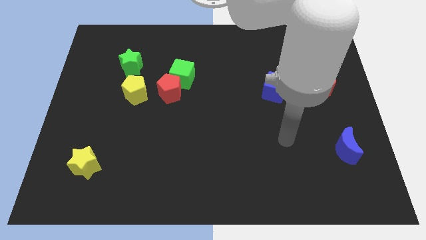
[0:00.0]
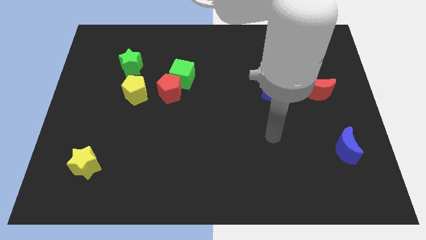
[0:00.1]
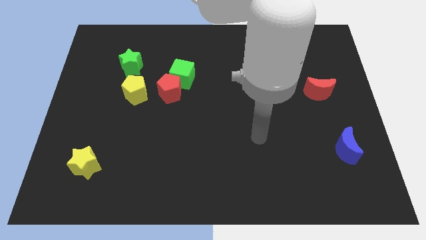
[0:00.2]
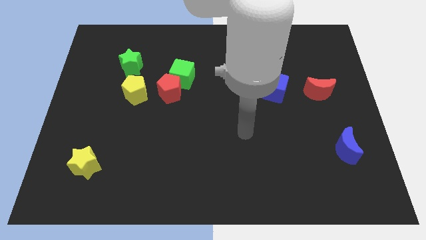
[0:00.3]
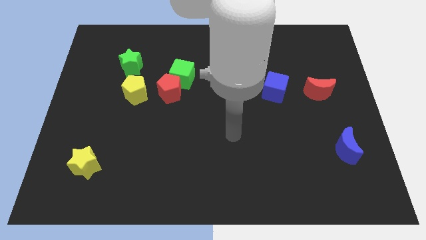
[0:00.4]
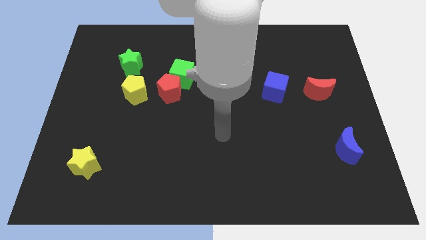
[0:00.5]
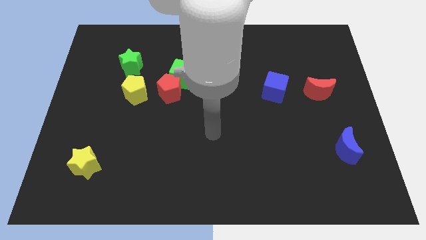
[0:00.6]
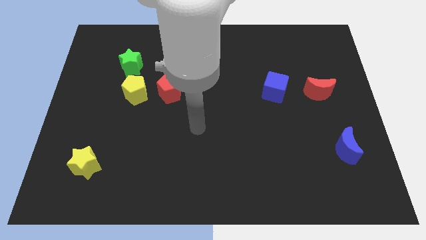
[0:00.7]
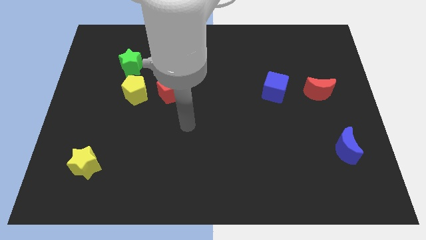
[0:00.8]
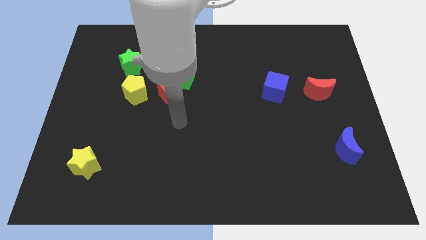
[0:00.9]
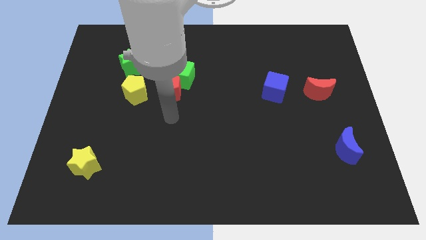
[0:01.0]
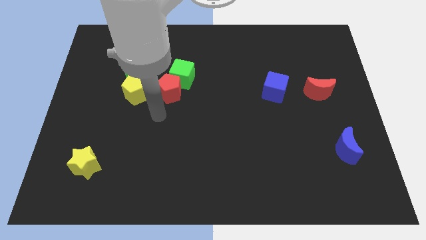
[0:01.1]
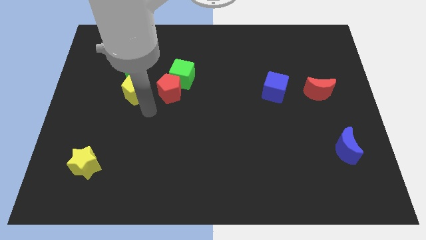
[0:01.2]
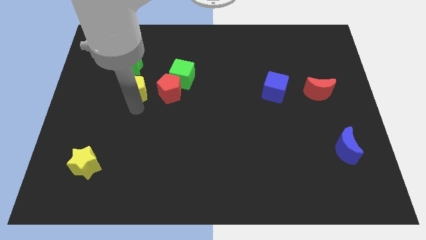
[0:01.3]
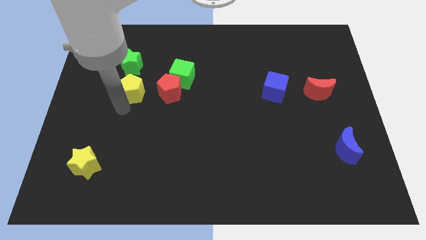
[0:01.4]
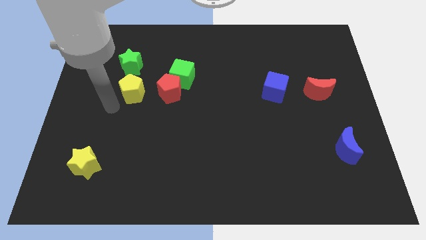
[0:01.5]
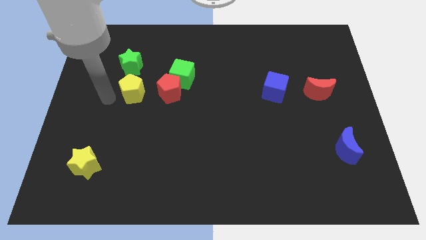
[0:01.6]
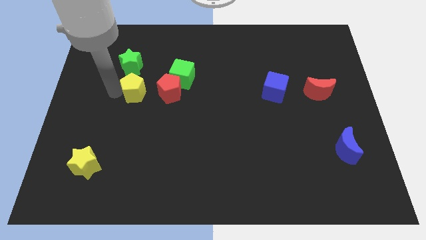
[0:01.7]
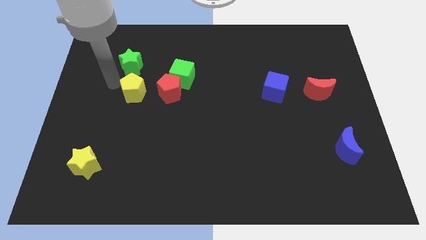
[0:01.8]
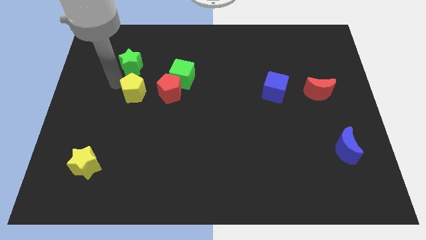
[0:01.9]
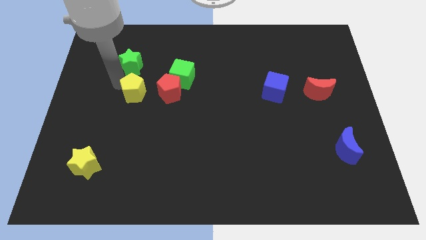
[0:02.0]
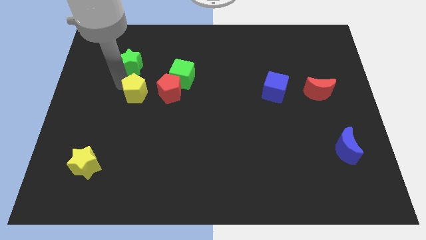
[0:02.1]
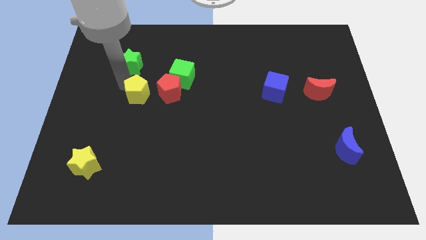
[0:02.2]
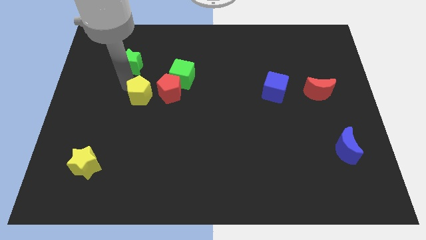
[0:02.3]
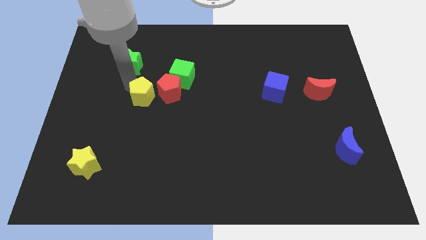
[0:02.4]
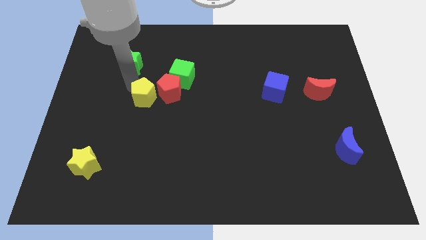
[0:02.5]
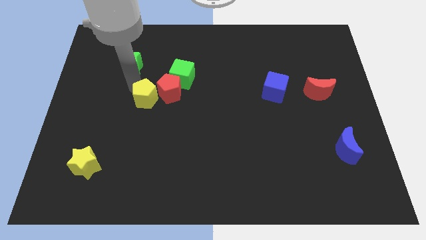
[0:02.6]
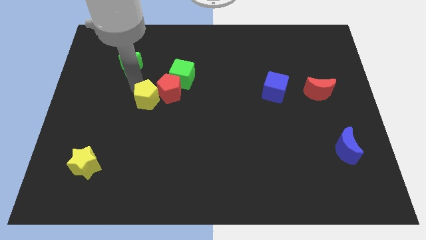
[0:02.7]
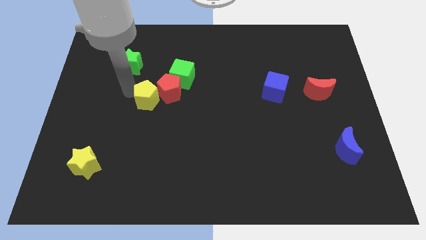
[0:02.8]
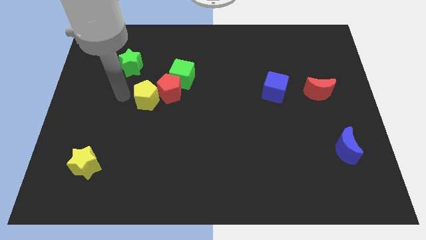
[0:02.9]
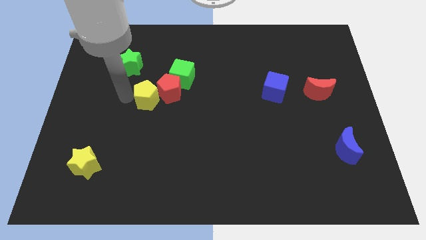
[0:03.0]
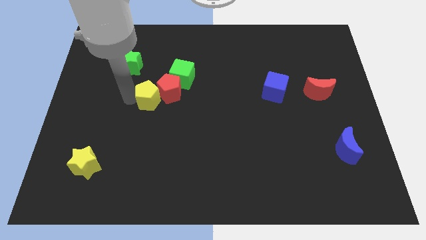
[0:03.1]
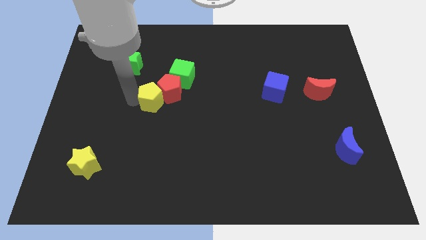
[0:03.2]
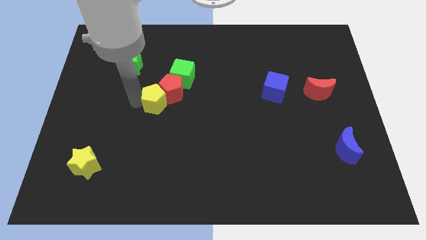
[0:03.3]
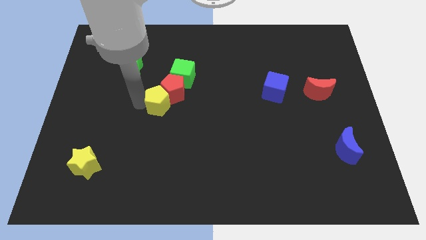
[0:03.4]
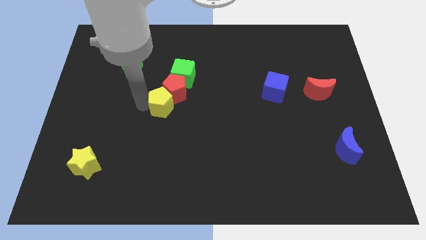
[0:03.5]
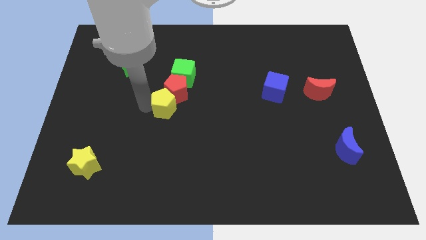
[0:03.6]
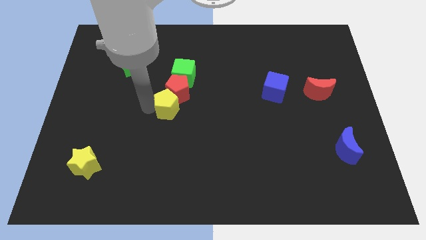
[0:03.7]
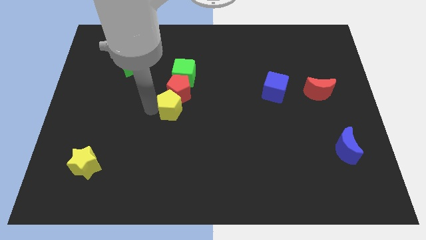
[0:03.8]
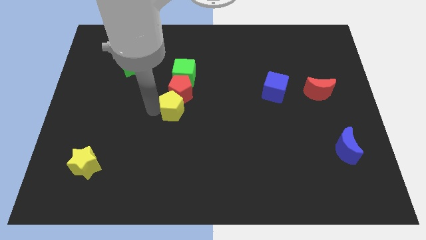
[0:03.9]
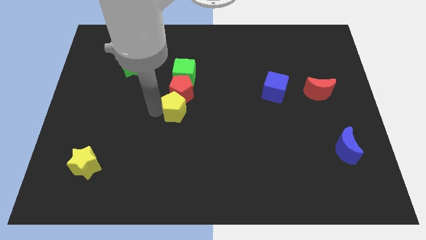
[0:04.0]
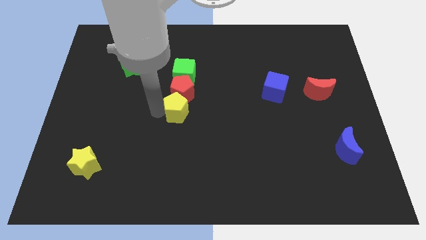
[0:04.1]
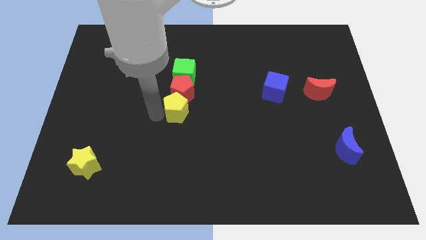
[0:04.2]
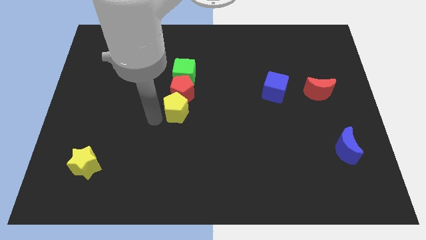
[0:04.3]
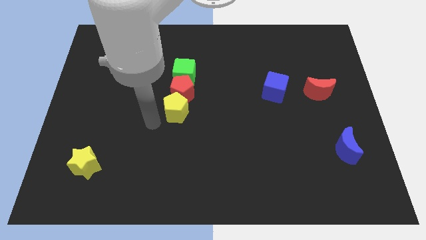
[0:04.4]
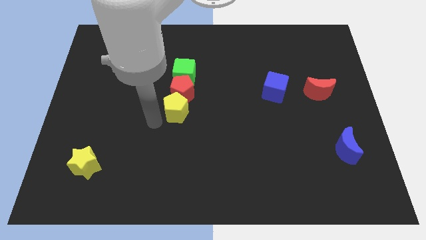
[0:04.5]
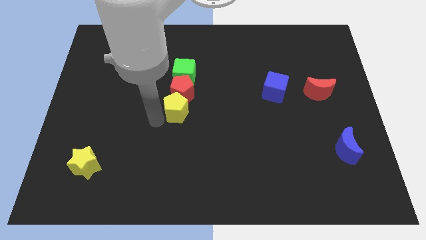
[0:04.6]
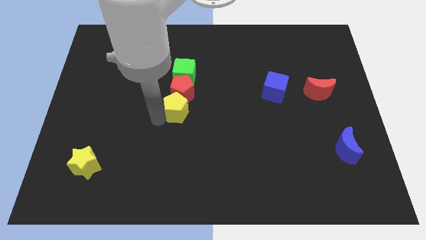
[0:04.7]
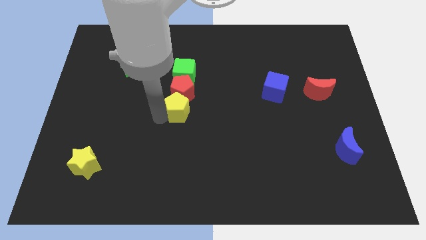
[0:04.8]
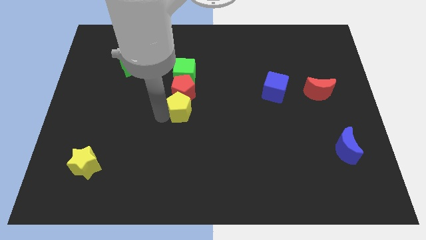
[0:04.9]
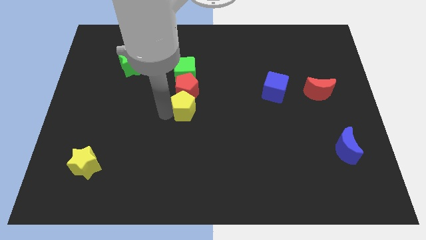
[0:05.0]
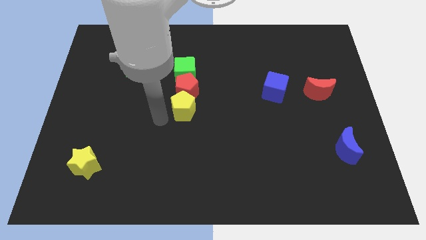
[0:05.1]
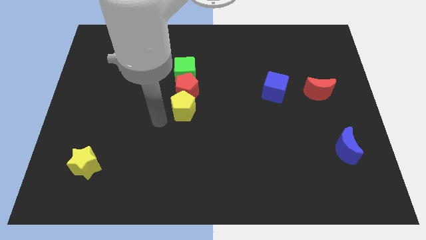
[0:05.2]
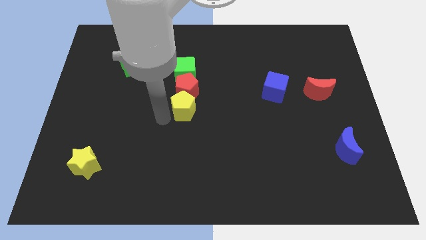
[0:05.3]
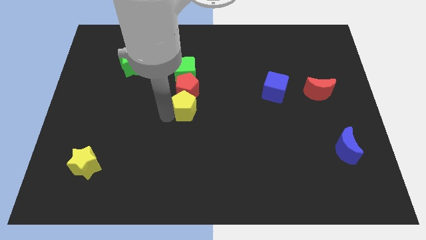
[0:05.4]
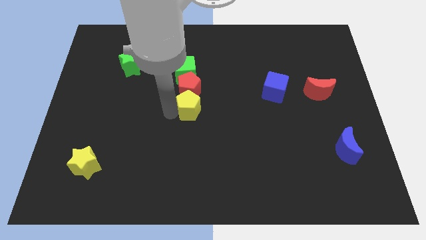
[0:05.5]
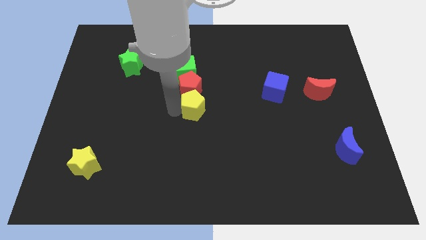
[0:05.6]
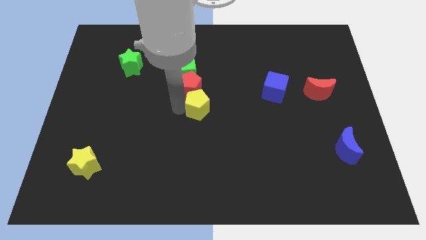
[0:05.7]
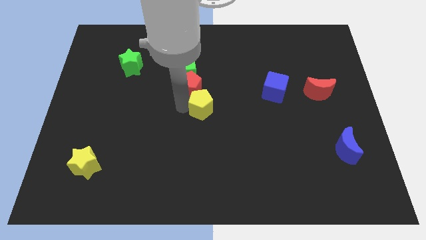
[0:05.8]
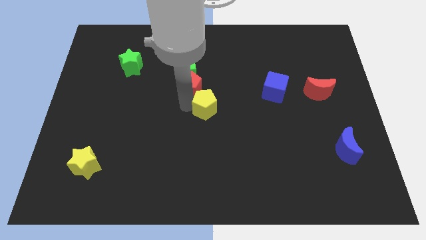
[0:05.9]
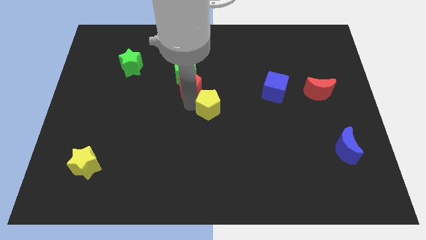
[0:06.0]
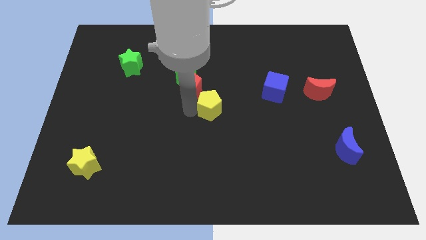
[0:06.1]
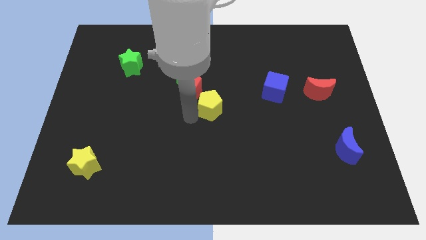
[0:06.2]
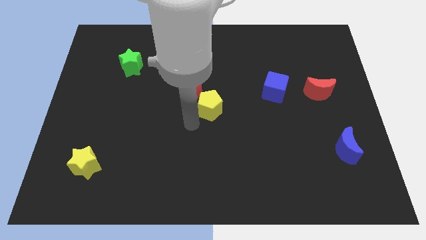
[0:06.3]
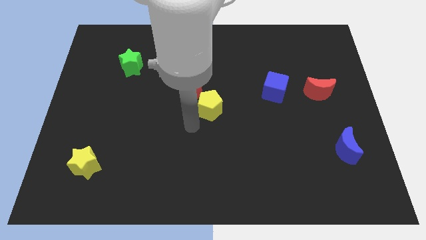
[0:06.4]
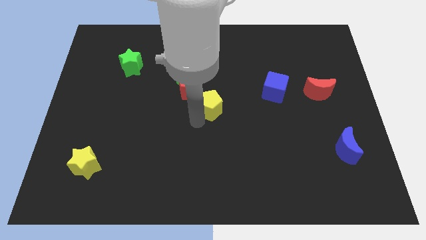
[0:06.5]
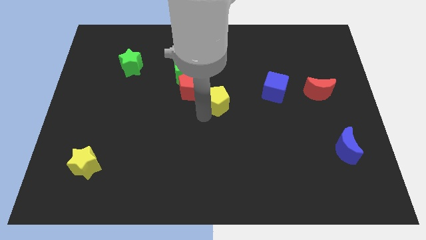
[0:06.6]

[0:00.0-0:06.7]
put the yellow pentagon to the right of the red pentagon

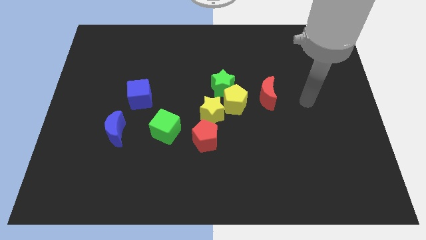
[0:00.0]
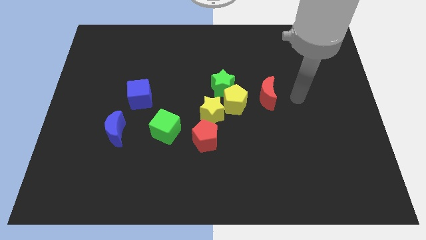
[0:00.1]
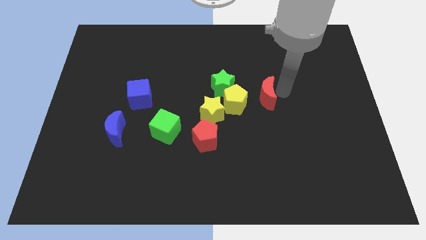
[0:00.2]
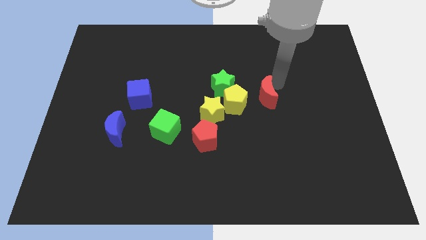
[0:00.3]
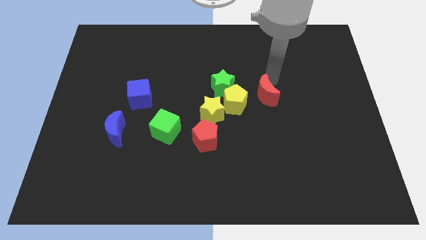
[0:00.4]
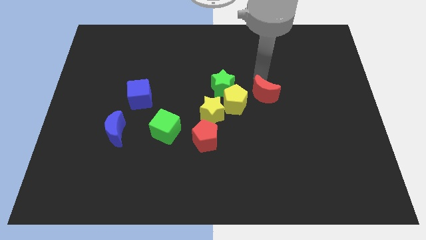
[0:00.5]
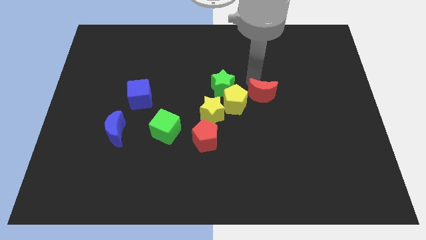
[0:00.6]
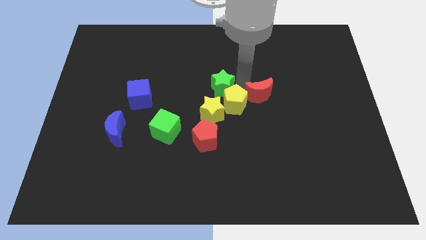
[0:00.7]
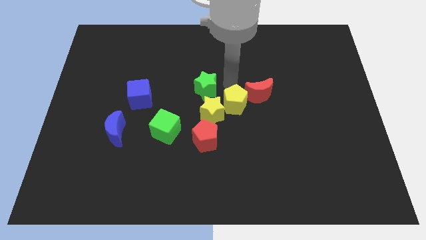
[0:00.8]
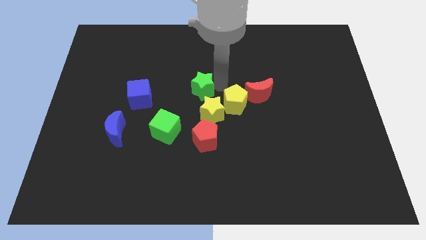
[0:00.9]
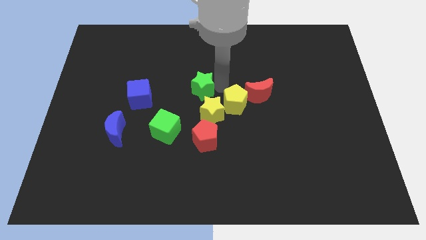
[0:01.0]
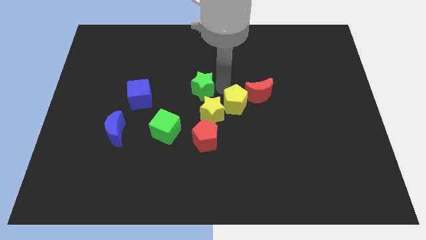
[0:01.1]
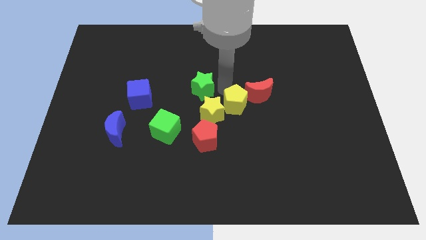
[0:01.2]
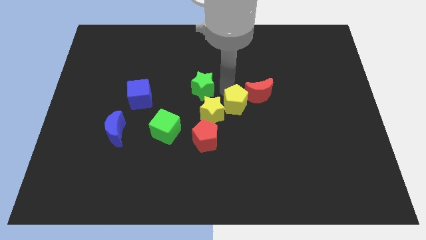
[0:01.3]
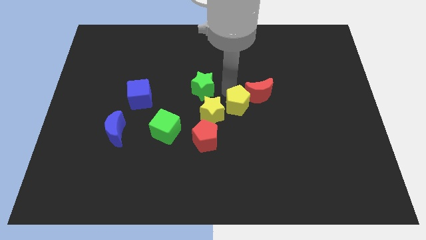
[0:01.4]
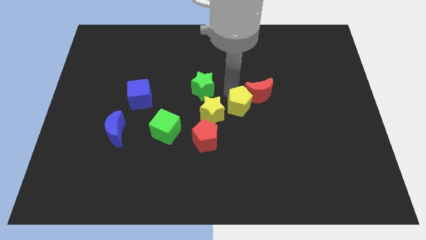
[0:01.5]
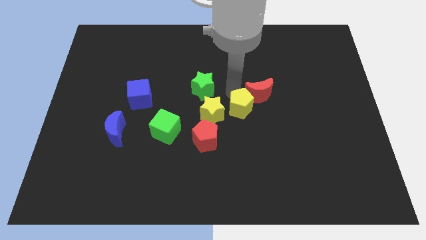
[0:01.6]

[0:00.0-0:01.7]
slide the yellow pentagon to the bottom of the red moon
